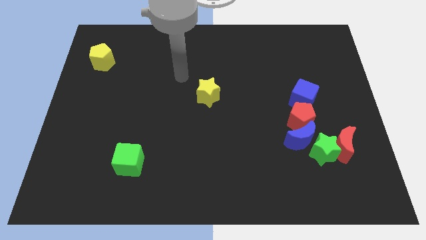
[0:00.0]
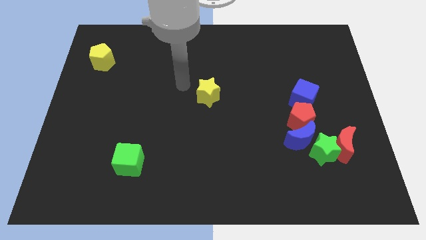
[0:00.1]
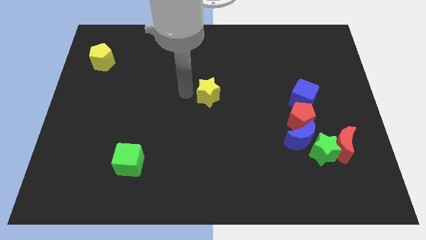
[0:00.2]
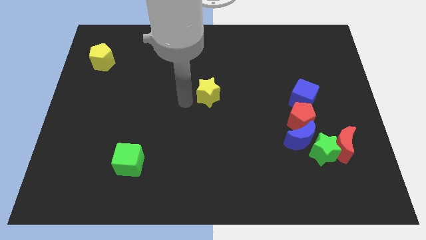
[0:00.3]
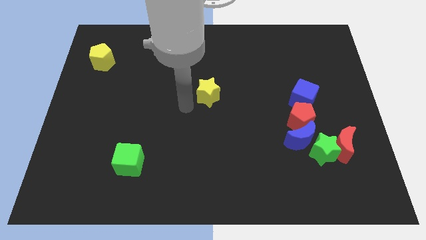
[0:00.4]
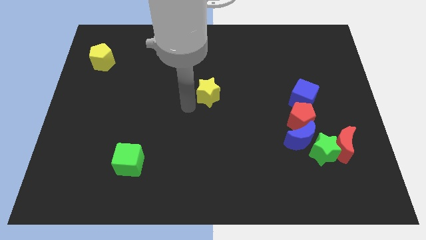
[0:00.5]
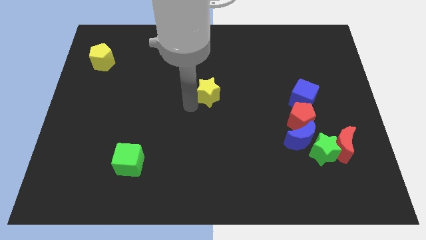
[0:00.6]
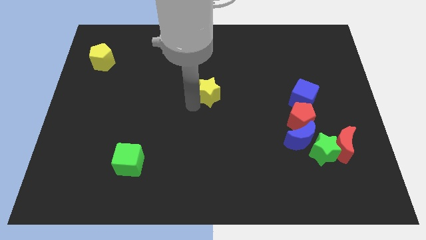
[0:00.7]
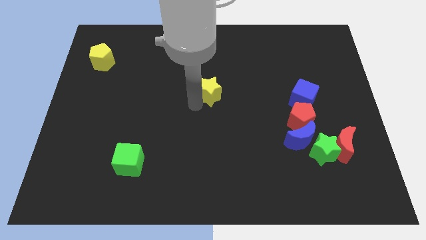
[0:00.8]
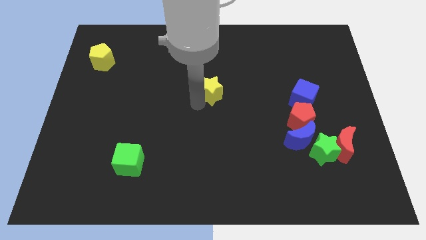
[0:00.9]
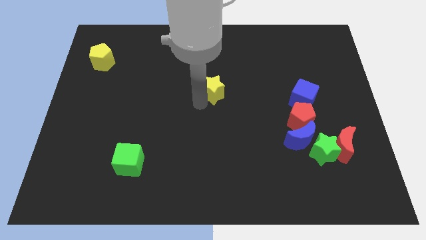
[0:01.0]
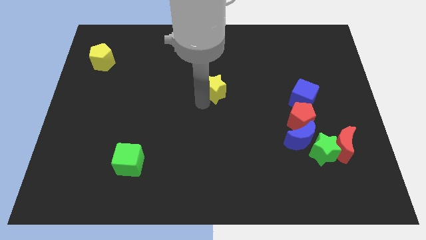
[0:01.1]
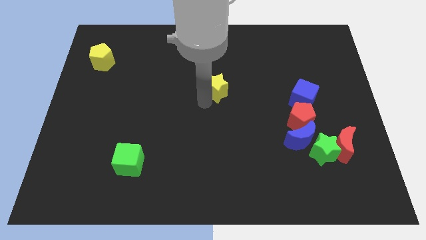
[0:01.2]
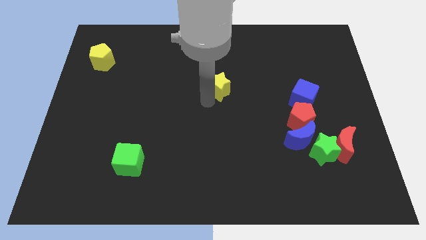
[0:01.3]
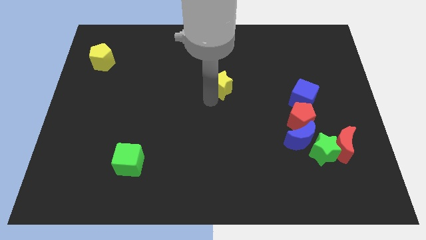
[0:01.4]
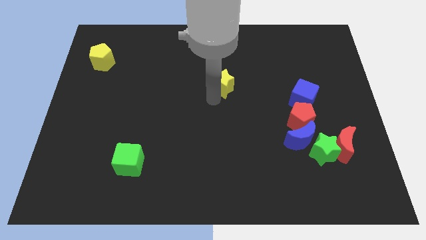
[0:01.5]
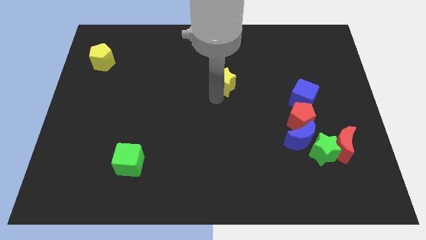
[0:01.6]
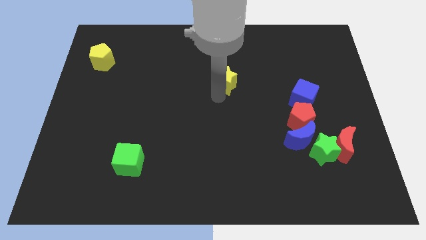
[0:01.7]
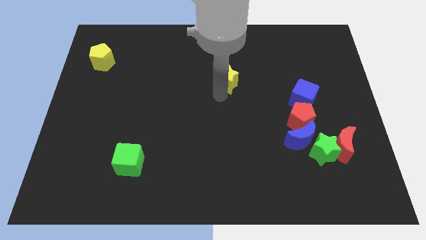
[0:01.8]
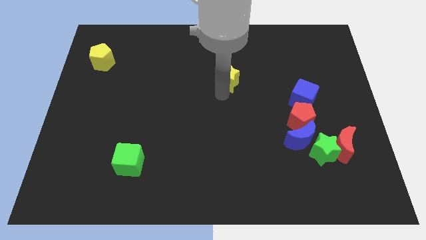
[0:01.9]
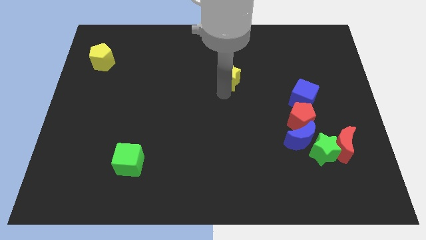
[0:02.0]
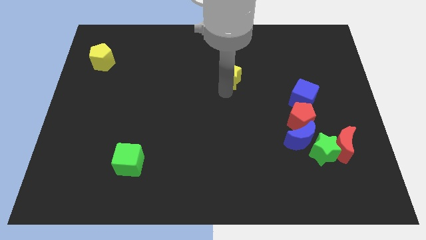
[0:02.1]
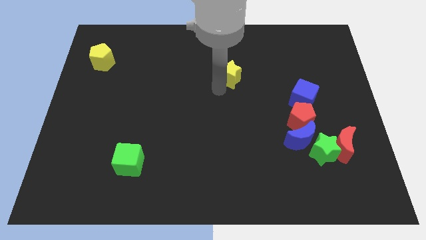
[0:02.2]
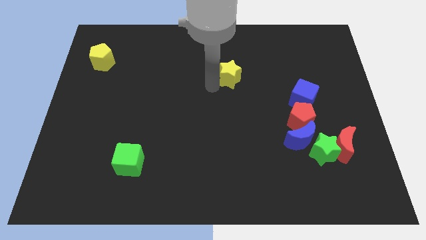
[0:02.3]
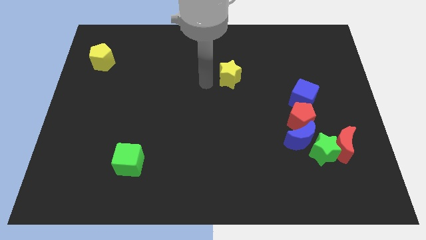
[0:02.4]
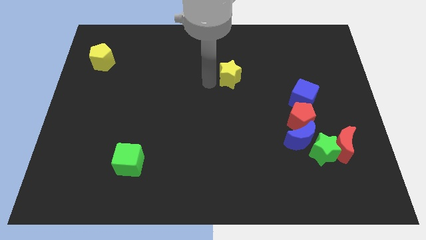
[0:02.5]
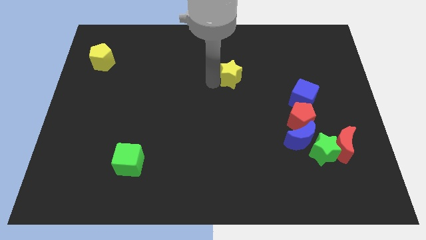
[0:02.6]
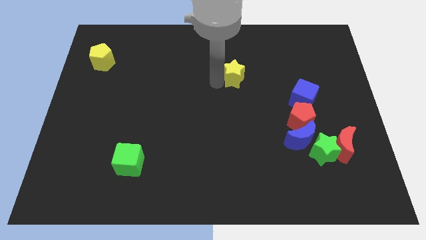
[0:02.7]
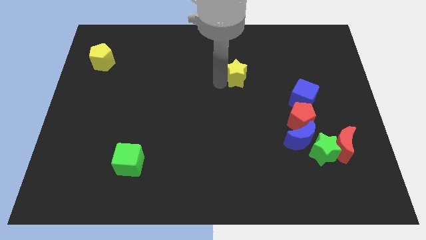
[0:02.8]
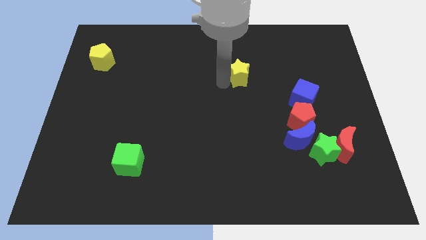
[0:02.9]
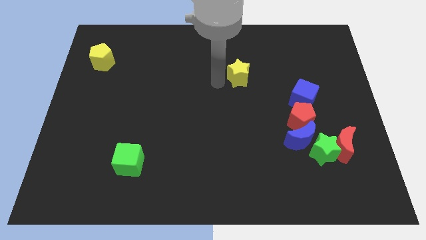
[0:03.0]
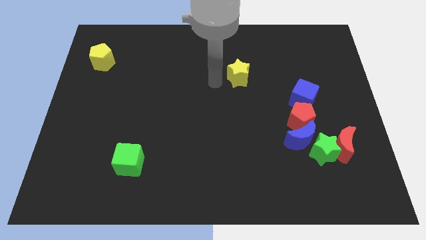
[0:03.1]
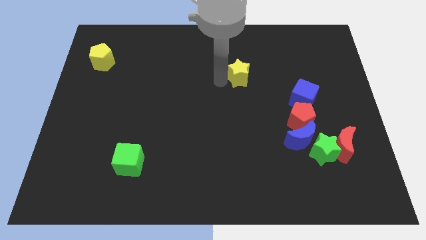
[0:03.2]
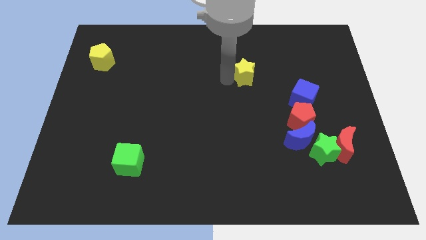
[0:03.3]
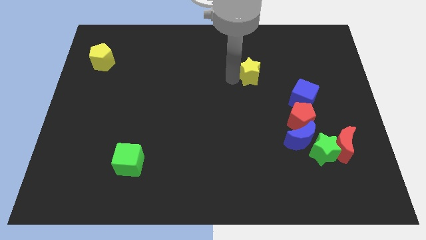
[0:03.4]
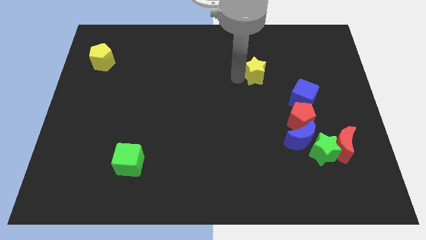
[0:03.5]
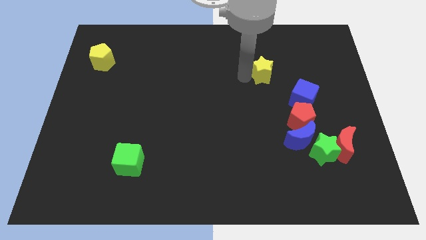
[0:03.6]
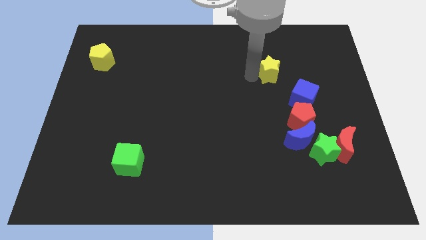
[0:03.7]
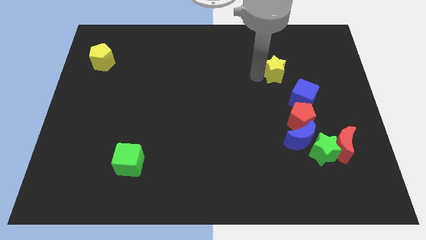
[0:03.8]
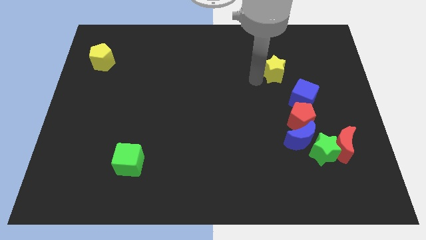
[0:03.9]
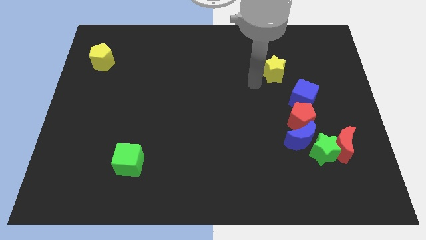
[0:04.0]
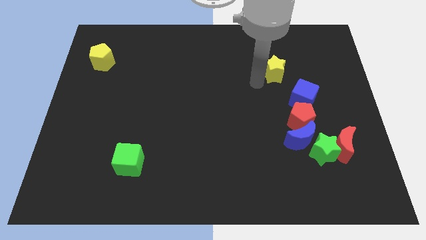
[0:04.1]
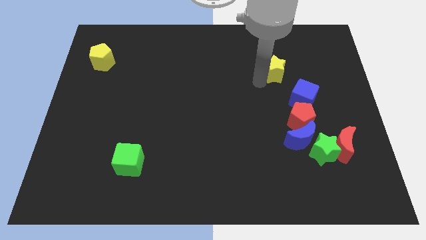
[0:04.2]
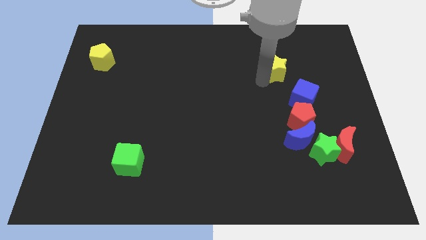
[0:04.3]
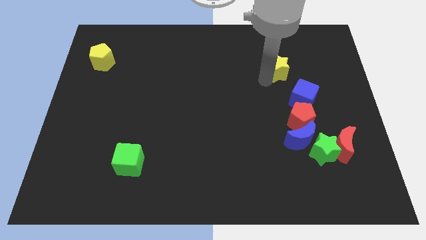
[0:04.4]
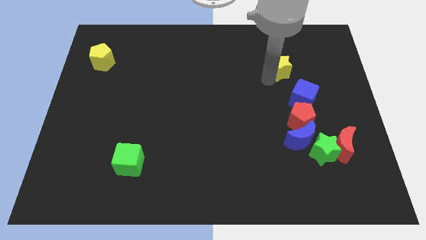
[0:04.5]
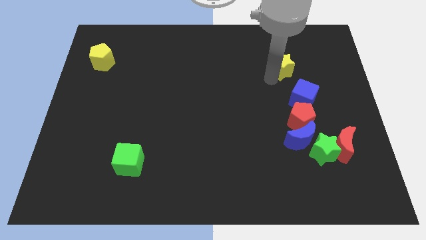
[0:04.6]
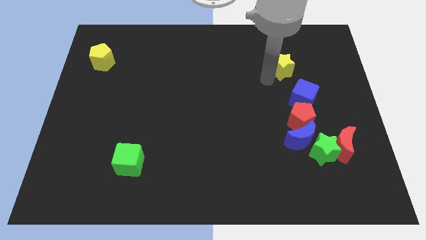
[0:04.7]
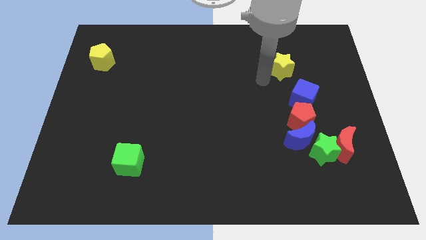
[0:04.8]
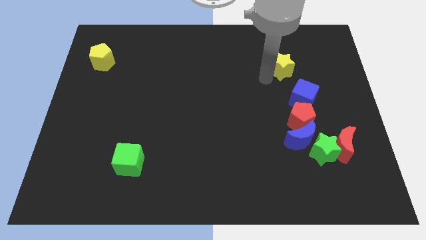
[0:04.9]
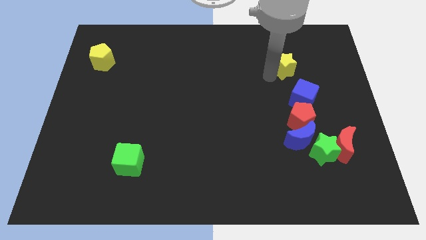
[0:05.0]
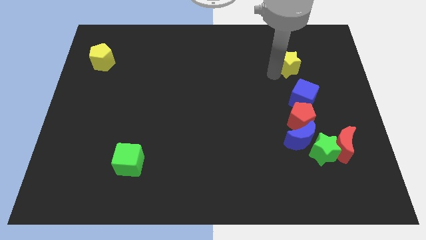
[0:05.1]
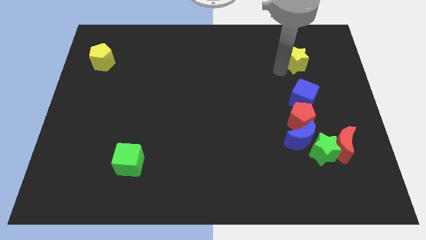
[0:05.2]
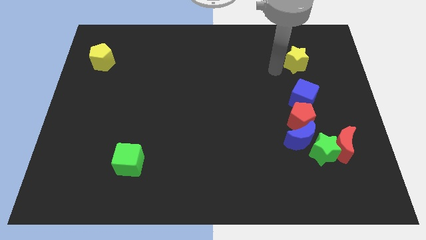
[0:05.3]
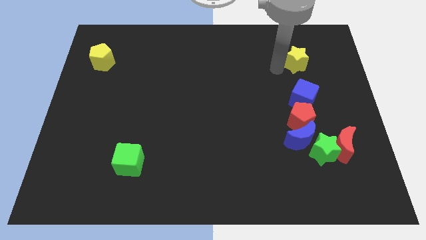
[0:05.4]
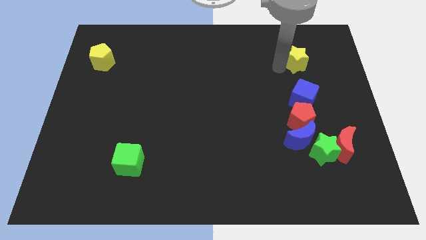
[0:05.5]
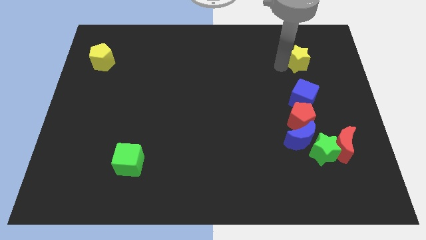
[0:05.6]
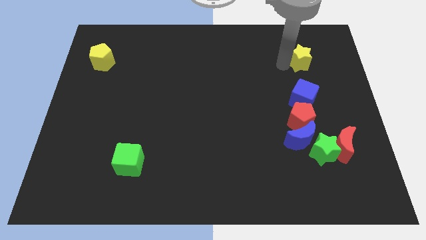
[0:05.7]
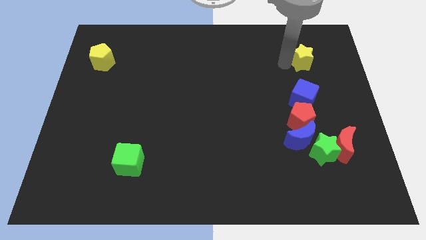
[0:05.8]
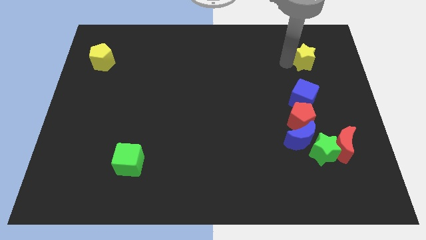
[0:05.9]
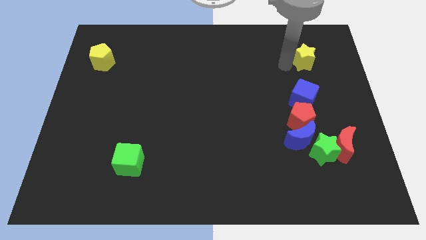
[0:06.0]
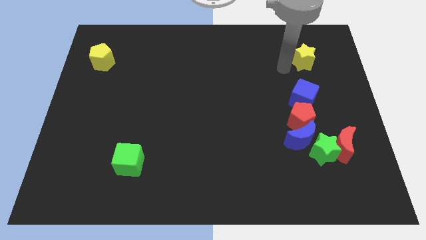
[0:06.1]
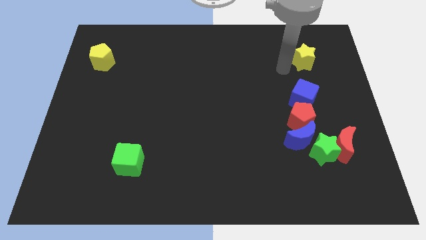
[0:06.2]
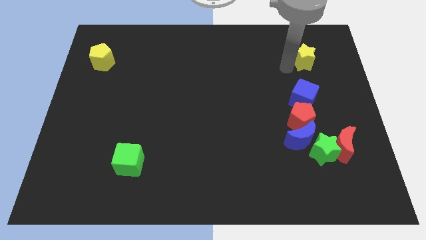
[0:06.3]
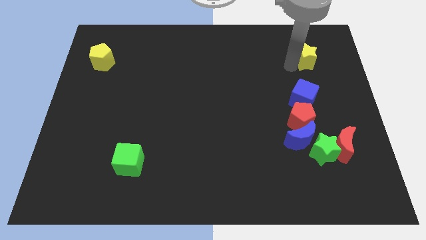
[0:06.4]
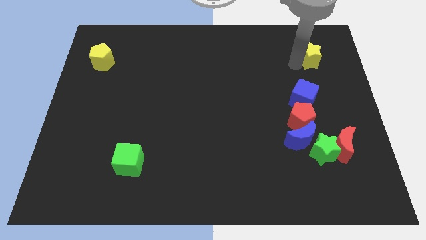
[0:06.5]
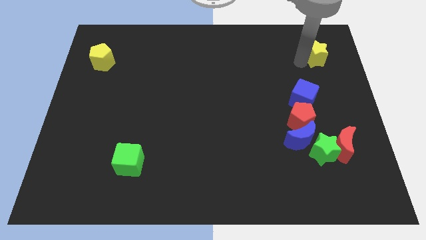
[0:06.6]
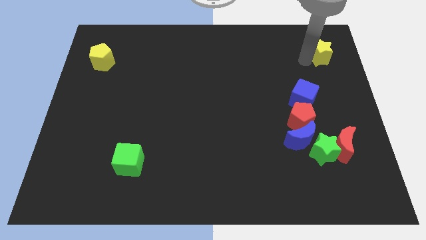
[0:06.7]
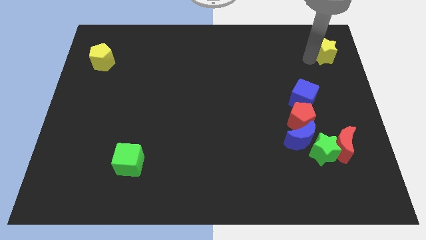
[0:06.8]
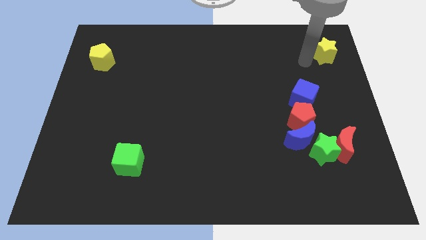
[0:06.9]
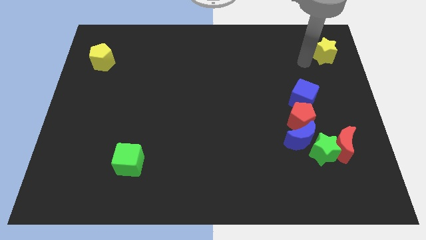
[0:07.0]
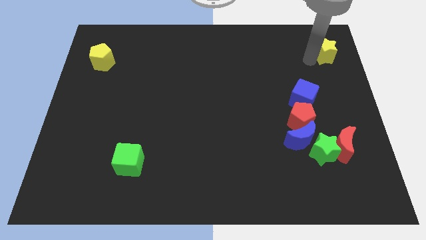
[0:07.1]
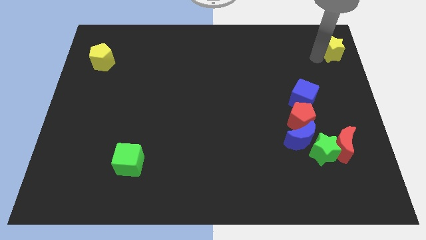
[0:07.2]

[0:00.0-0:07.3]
push the yellow star to the upper right corner
